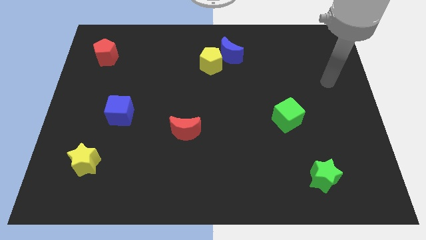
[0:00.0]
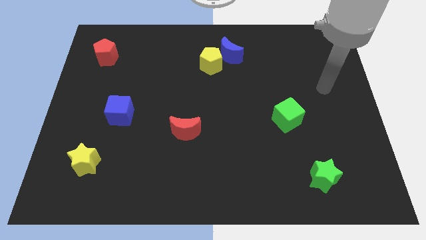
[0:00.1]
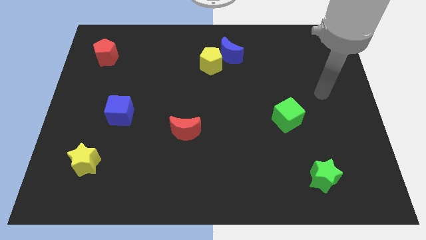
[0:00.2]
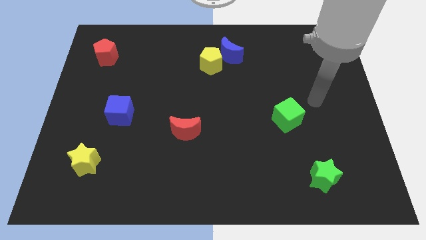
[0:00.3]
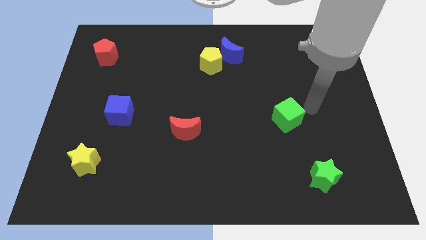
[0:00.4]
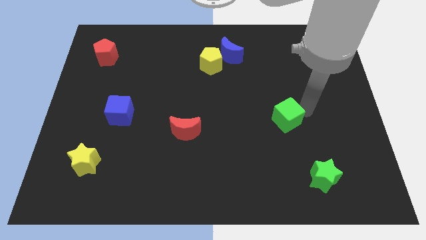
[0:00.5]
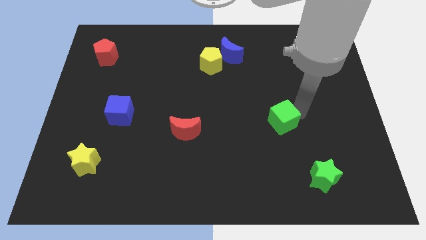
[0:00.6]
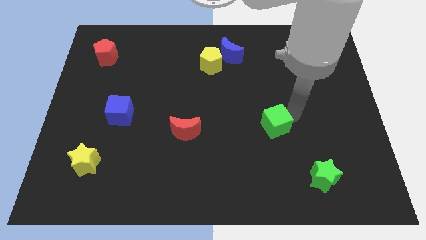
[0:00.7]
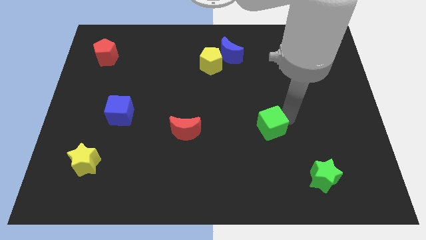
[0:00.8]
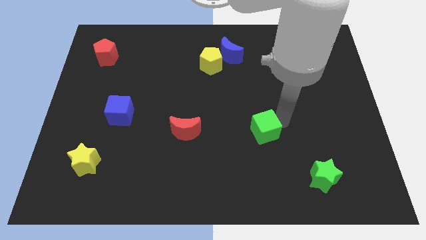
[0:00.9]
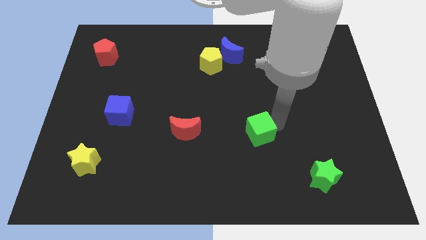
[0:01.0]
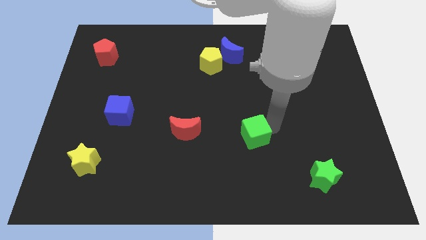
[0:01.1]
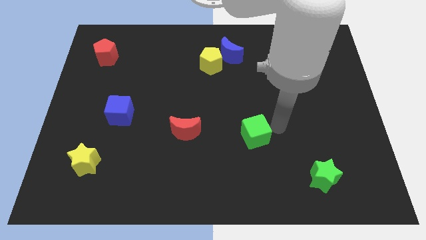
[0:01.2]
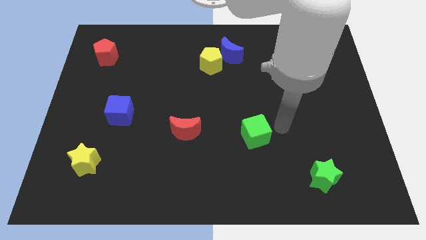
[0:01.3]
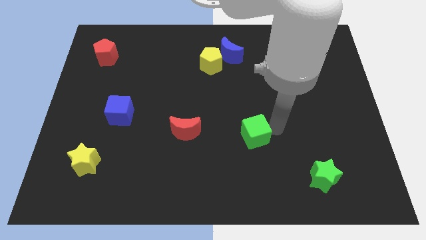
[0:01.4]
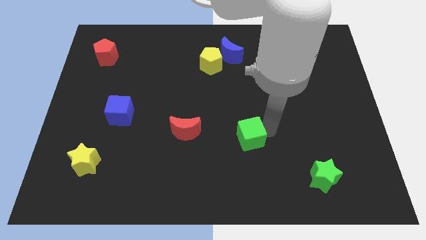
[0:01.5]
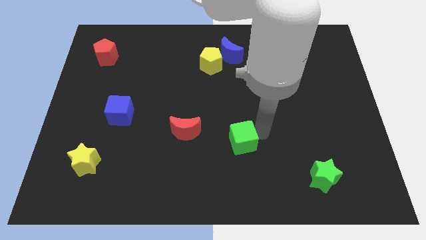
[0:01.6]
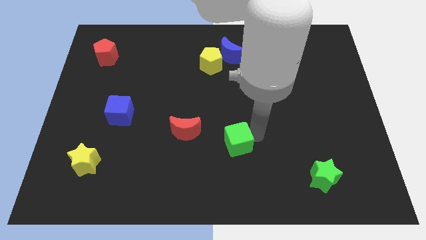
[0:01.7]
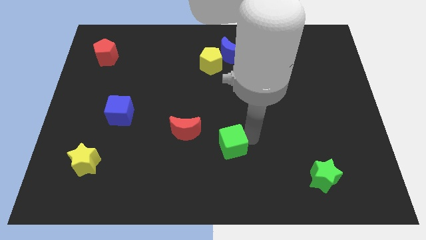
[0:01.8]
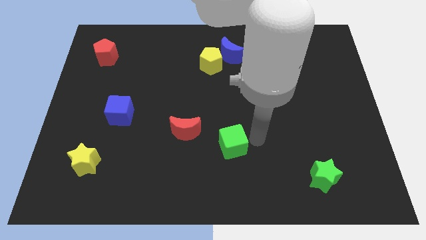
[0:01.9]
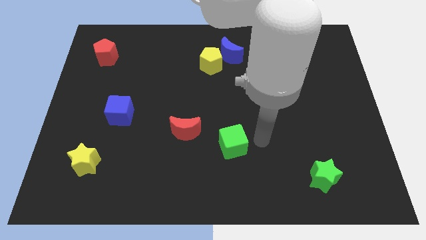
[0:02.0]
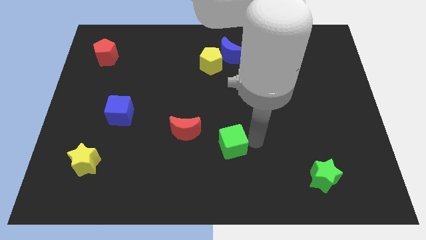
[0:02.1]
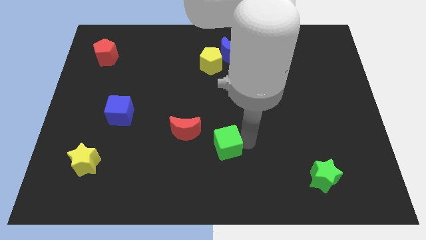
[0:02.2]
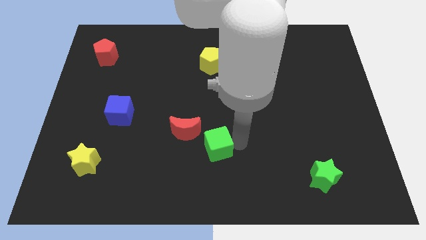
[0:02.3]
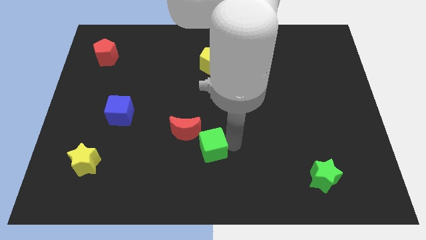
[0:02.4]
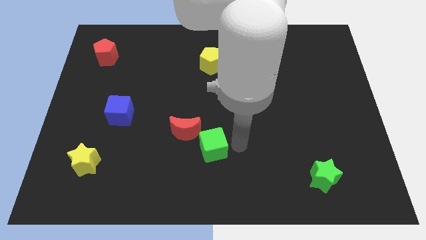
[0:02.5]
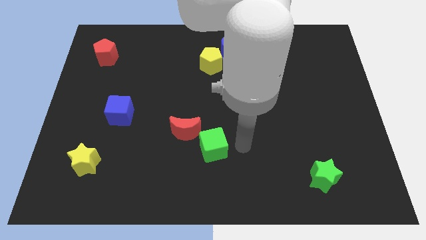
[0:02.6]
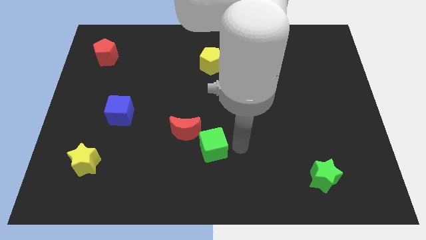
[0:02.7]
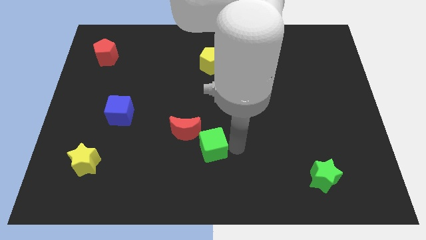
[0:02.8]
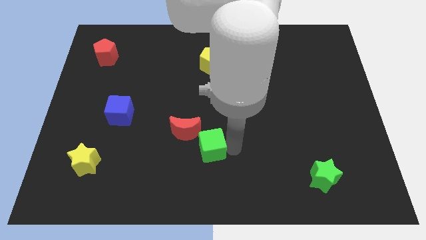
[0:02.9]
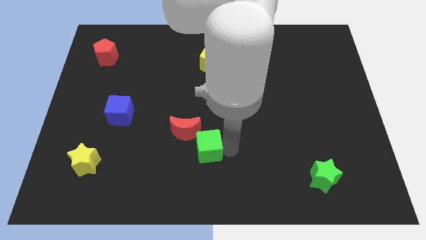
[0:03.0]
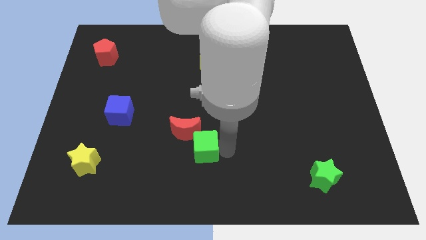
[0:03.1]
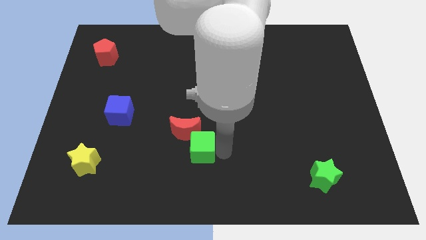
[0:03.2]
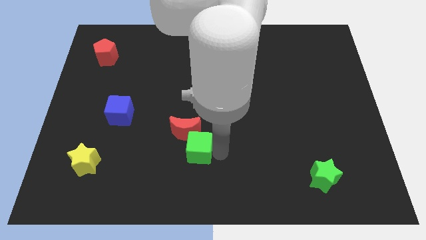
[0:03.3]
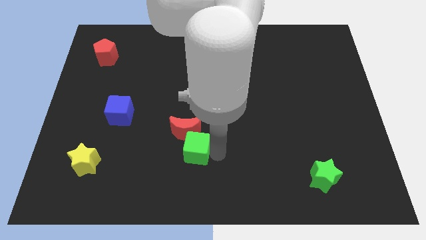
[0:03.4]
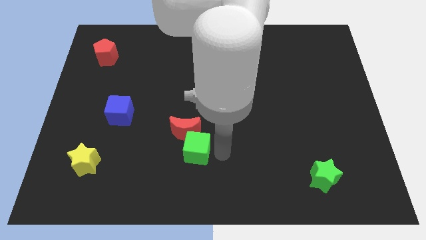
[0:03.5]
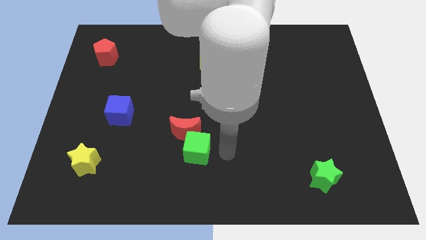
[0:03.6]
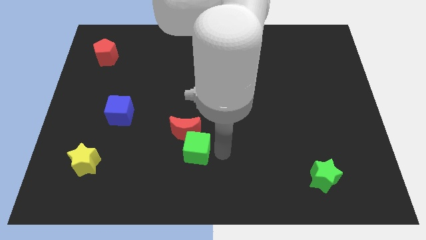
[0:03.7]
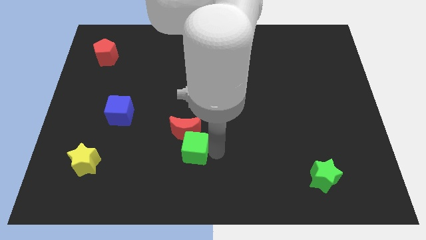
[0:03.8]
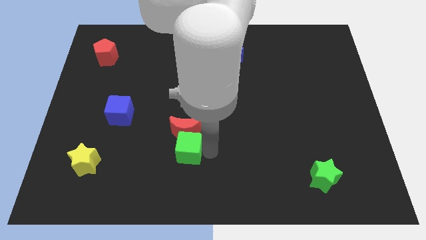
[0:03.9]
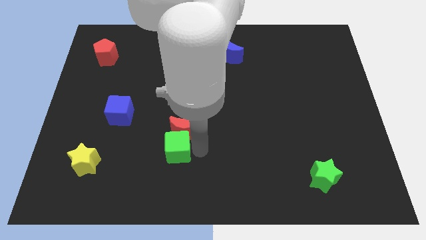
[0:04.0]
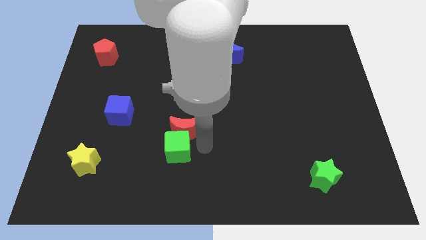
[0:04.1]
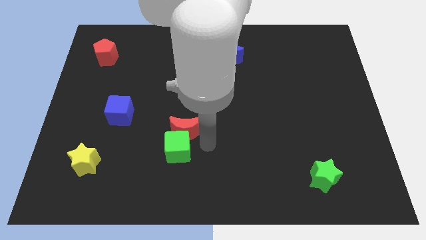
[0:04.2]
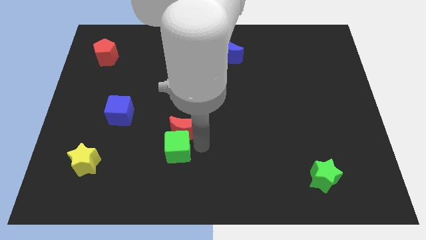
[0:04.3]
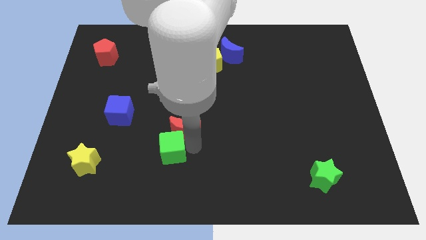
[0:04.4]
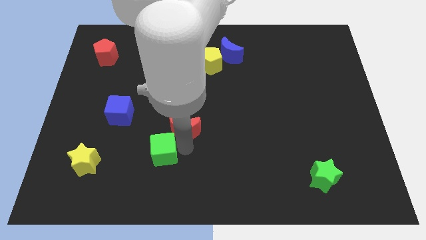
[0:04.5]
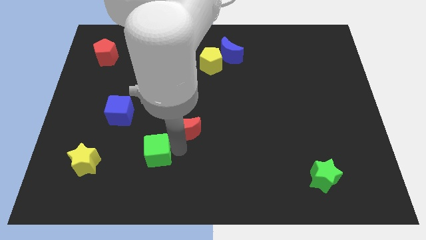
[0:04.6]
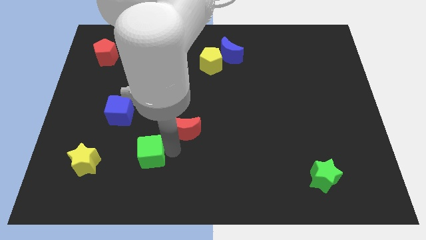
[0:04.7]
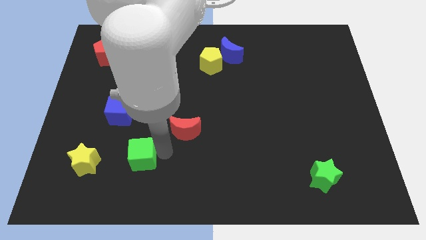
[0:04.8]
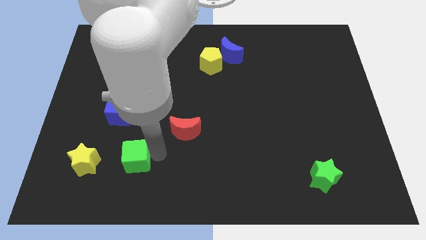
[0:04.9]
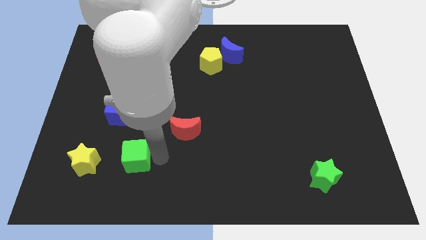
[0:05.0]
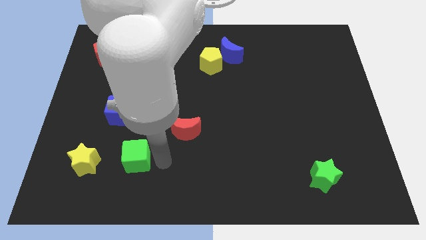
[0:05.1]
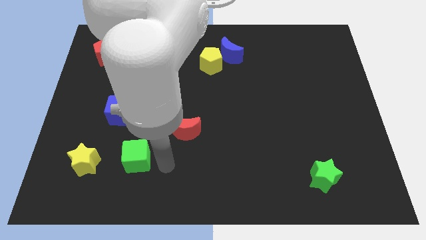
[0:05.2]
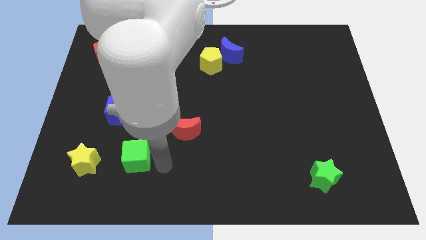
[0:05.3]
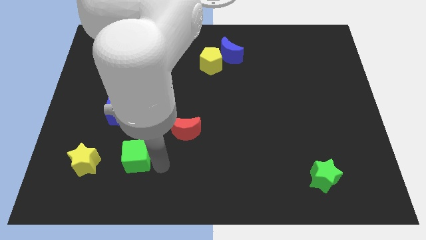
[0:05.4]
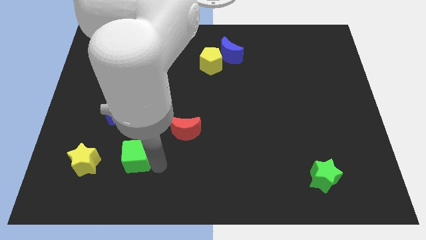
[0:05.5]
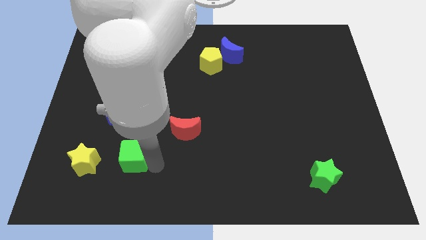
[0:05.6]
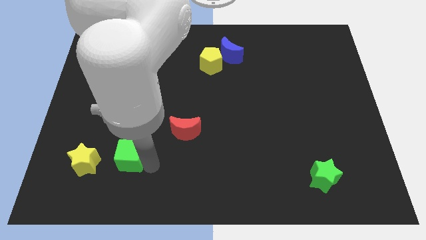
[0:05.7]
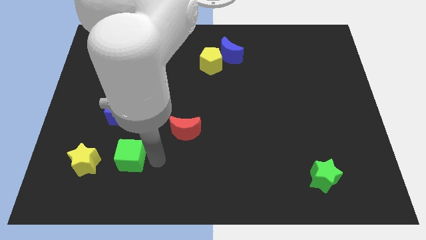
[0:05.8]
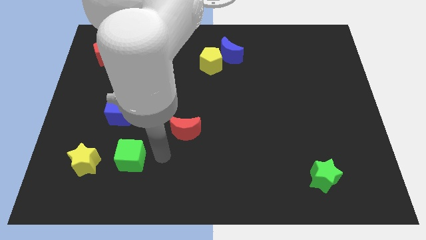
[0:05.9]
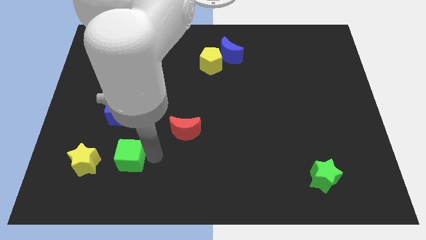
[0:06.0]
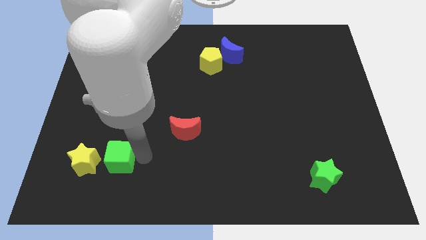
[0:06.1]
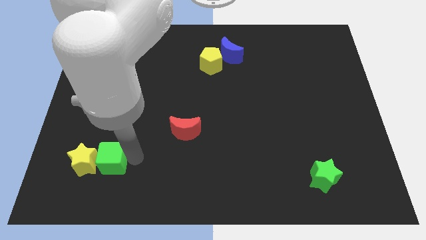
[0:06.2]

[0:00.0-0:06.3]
move the green cube close to the yellow star
